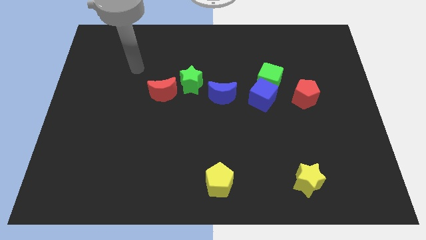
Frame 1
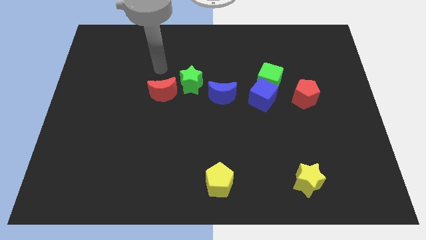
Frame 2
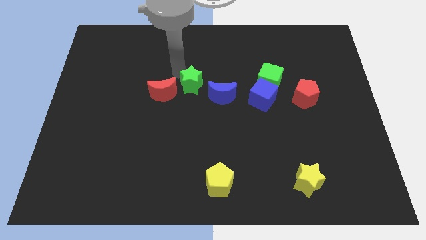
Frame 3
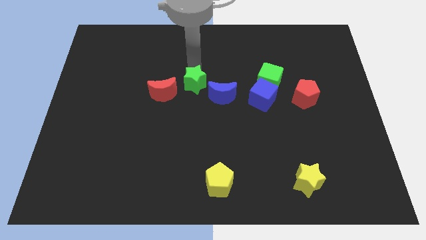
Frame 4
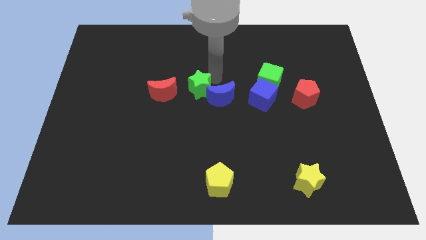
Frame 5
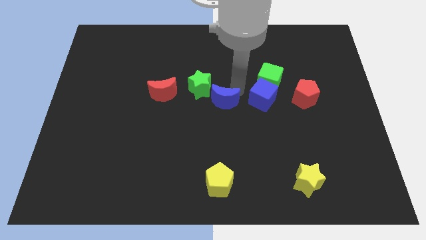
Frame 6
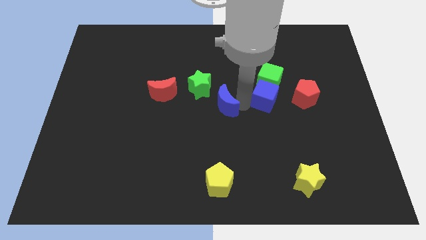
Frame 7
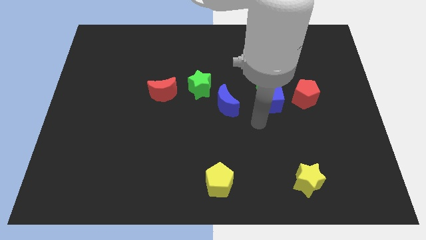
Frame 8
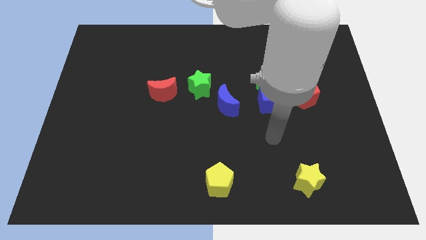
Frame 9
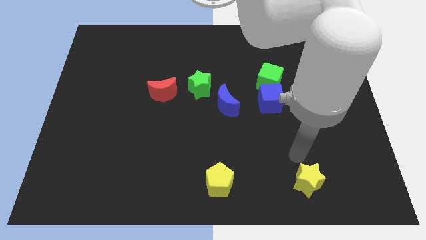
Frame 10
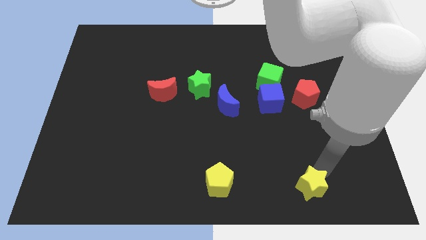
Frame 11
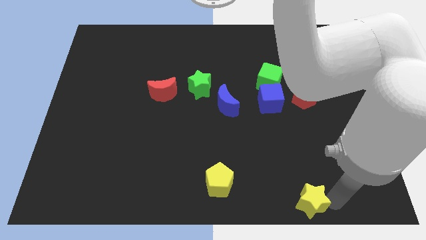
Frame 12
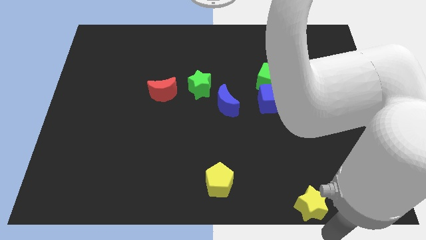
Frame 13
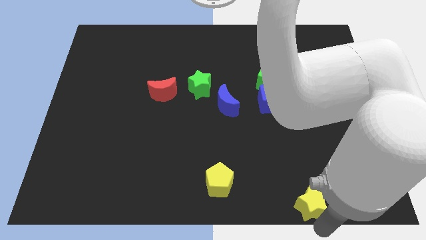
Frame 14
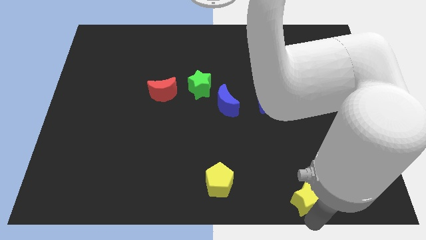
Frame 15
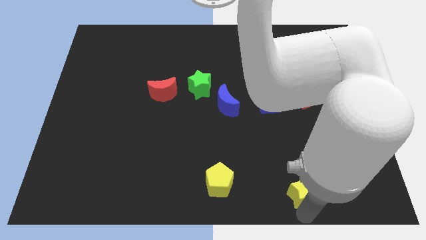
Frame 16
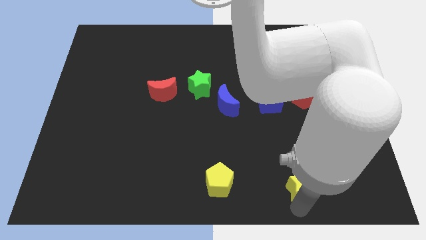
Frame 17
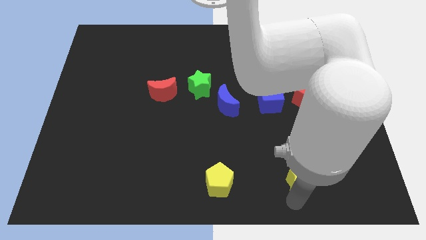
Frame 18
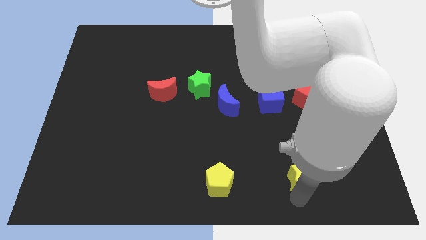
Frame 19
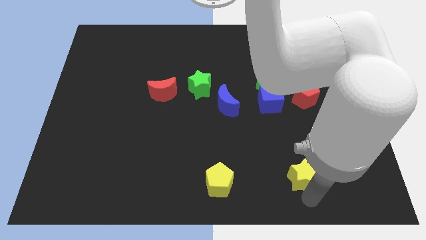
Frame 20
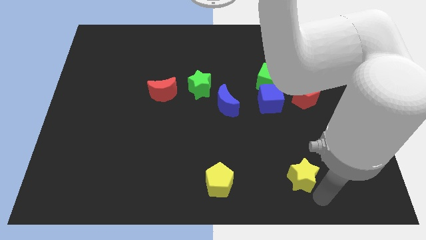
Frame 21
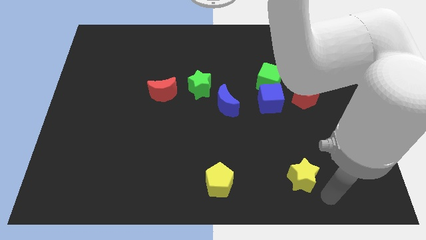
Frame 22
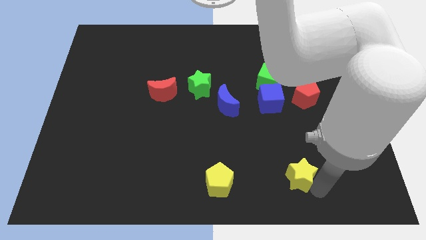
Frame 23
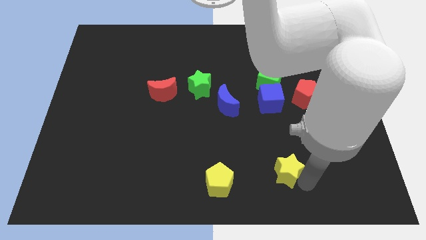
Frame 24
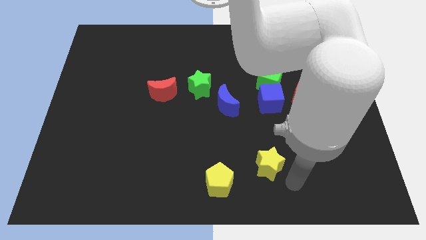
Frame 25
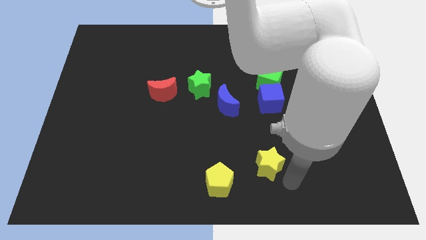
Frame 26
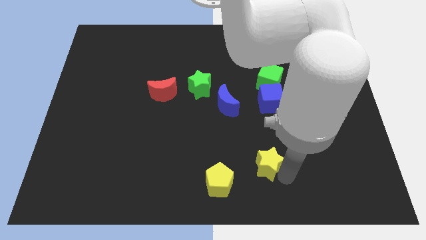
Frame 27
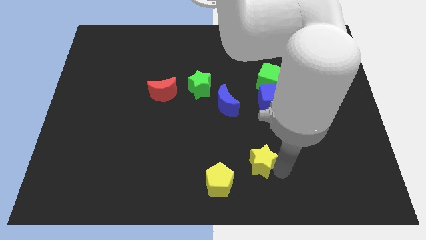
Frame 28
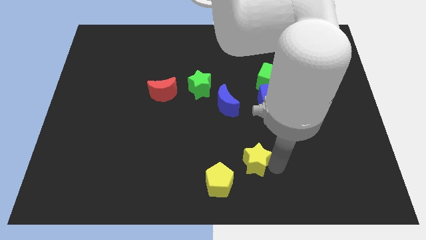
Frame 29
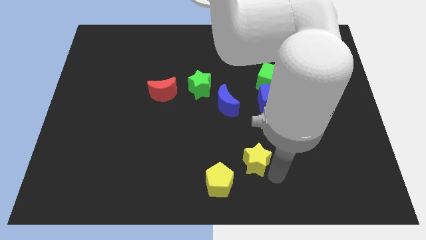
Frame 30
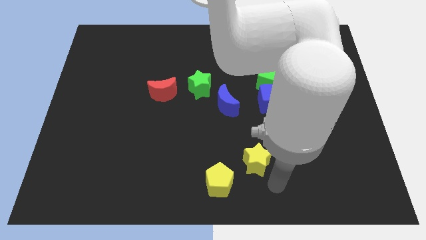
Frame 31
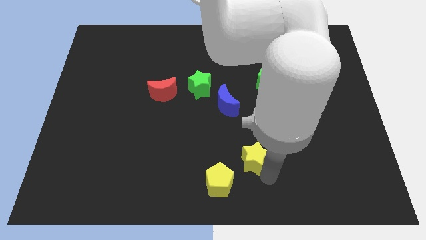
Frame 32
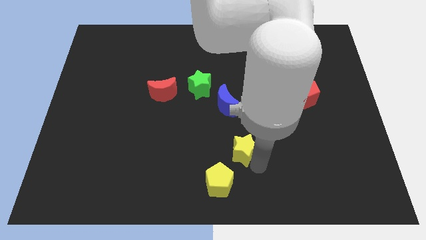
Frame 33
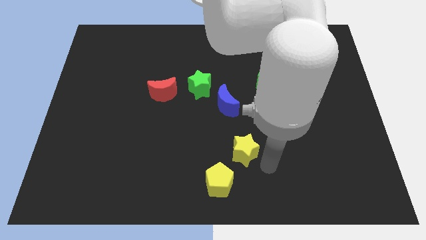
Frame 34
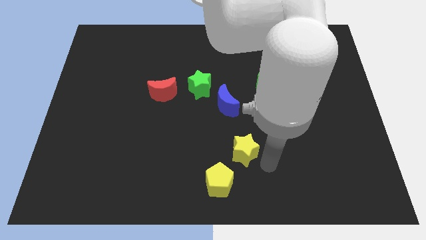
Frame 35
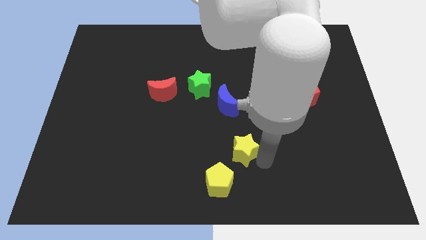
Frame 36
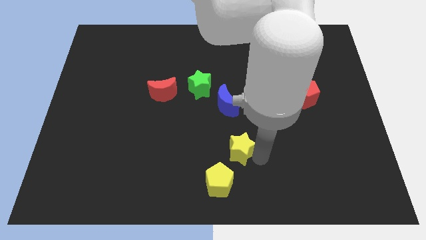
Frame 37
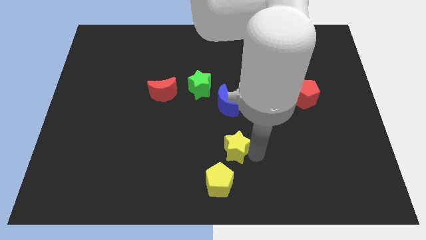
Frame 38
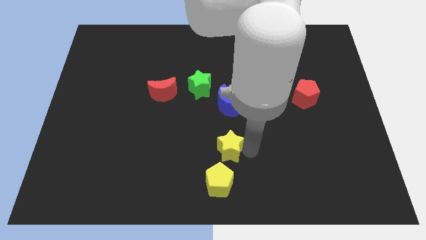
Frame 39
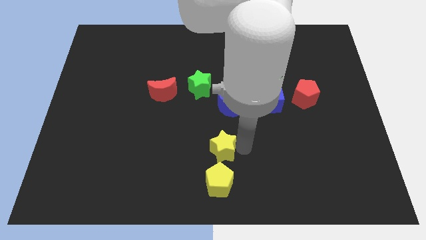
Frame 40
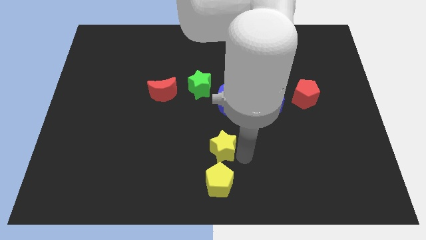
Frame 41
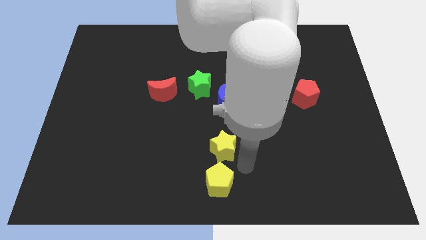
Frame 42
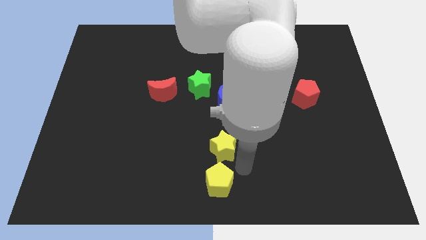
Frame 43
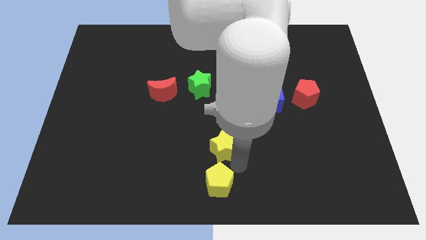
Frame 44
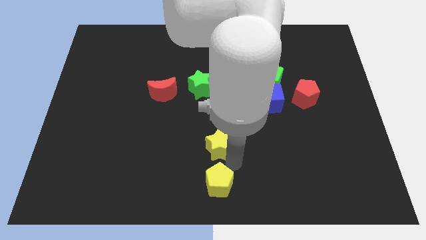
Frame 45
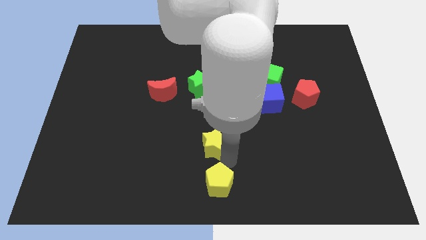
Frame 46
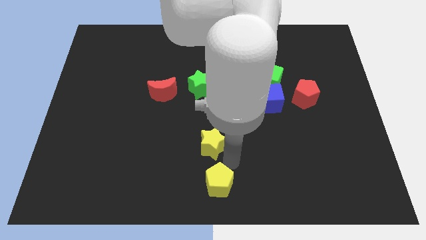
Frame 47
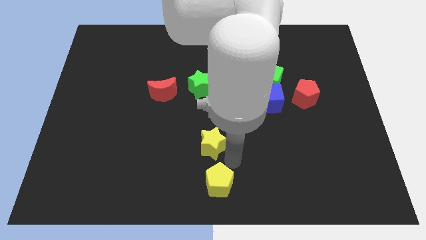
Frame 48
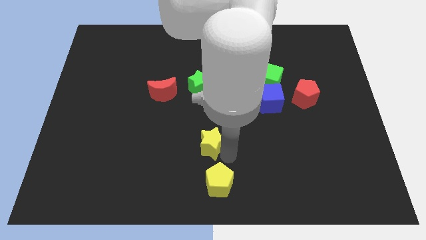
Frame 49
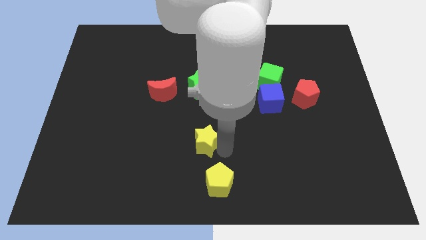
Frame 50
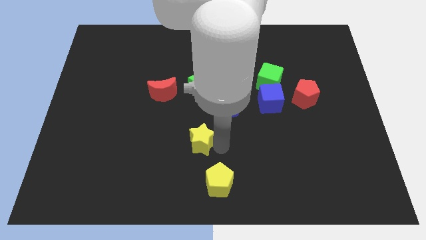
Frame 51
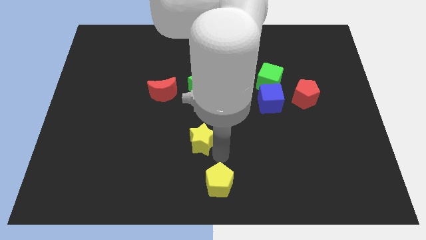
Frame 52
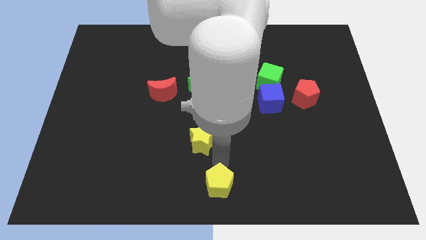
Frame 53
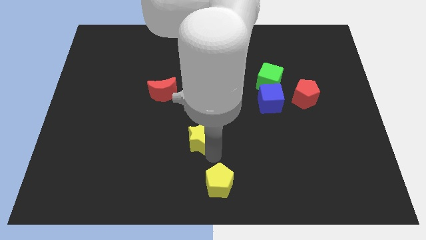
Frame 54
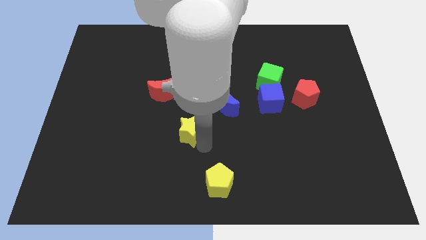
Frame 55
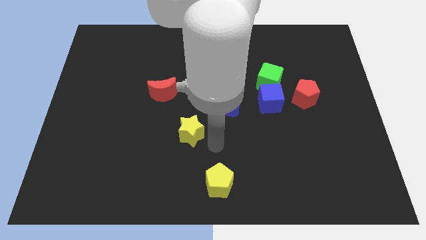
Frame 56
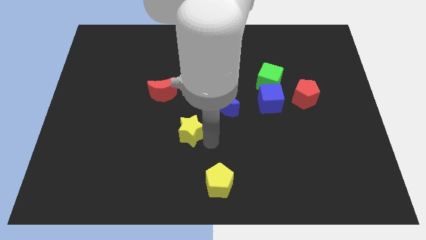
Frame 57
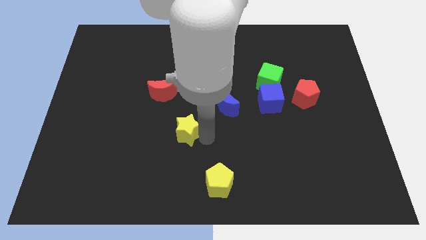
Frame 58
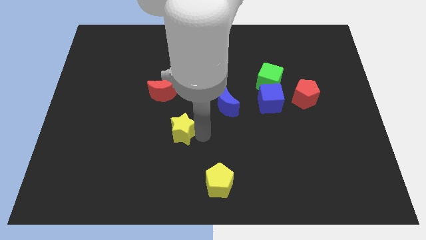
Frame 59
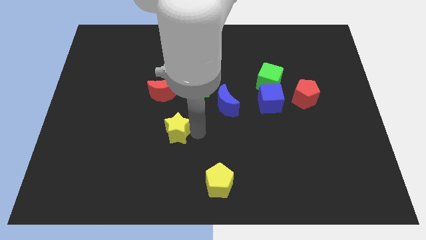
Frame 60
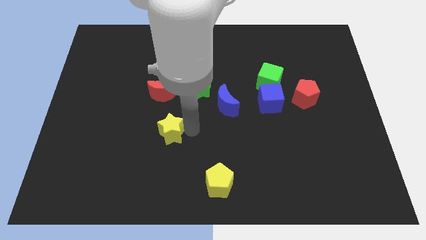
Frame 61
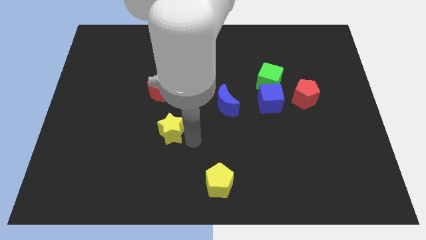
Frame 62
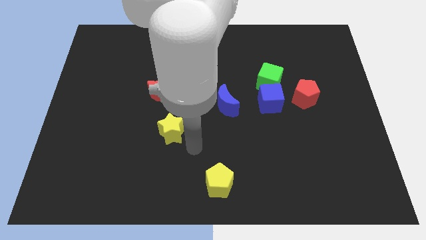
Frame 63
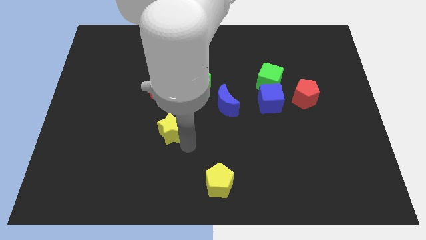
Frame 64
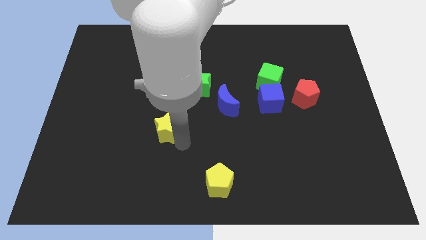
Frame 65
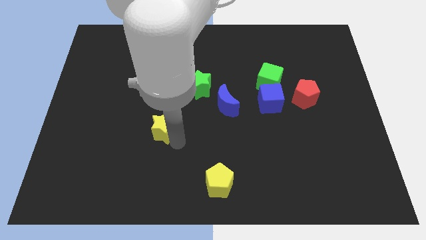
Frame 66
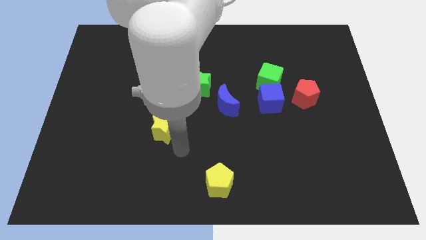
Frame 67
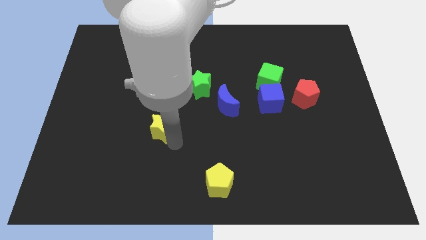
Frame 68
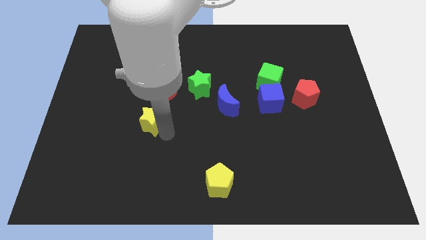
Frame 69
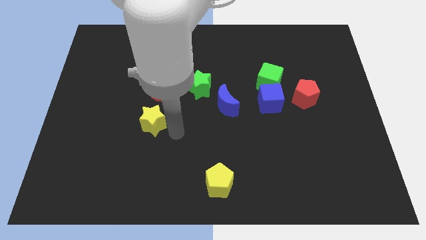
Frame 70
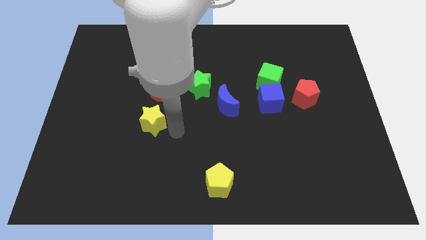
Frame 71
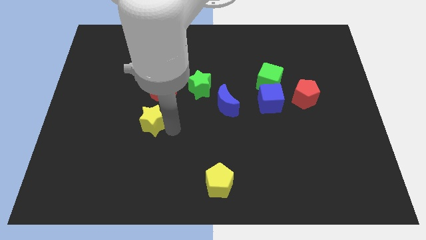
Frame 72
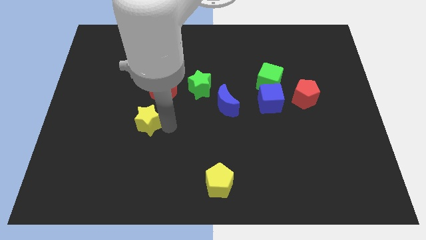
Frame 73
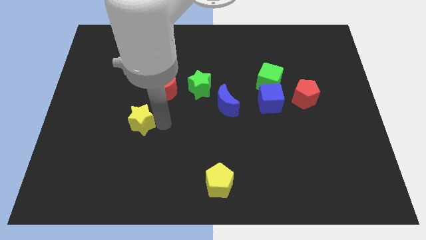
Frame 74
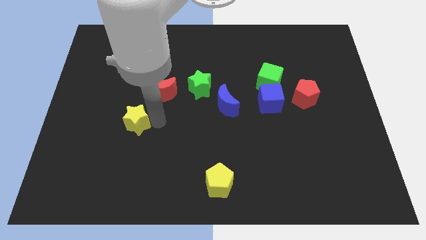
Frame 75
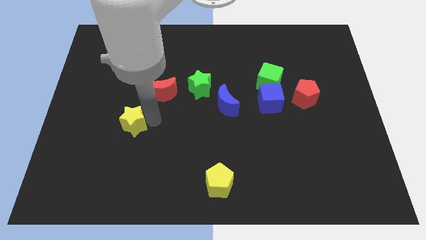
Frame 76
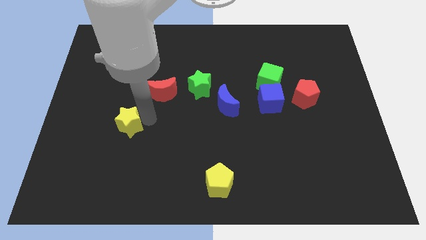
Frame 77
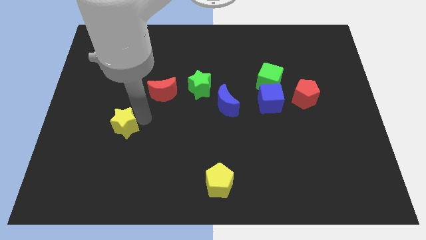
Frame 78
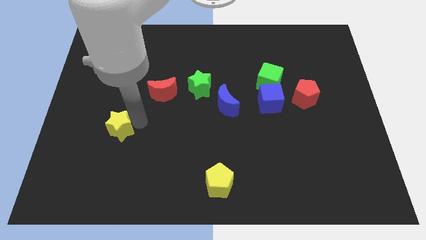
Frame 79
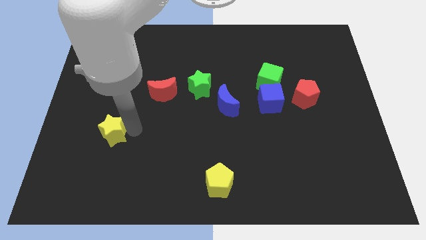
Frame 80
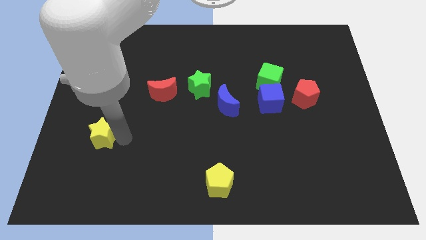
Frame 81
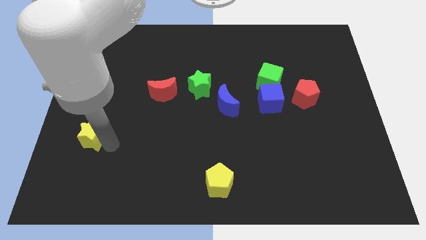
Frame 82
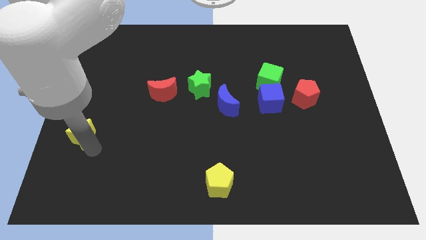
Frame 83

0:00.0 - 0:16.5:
push the yellow star to the center left
